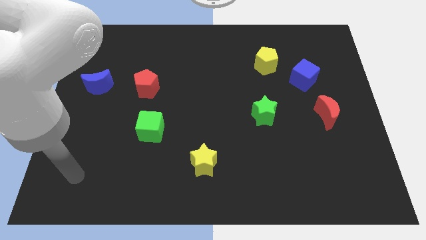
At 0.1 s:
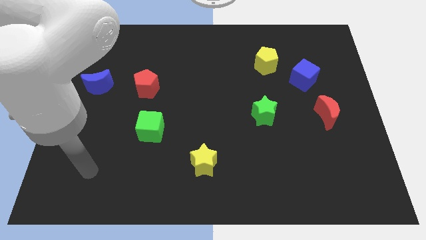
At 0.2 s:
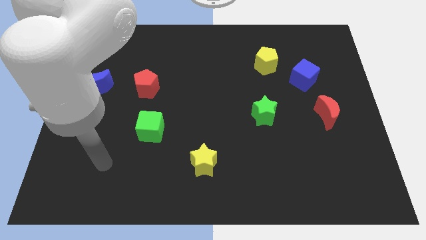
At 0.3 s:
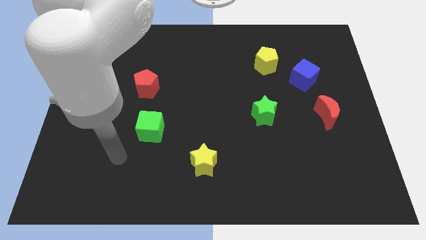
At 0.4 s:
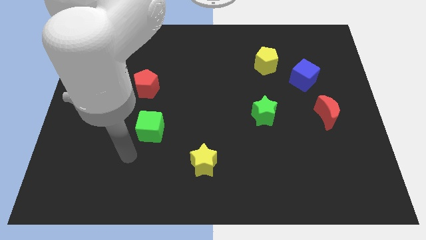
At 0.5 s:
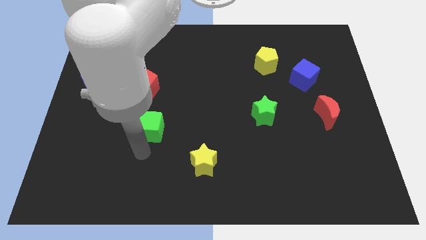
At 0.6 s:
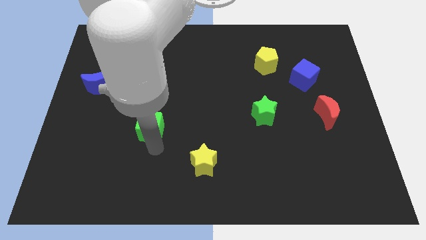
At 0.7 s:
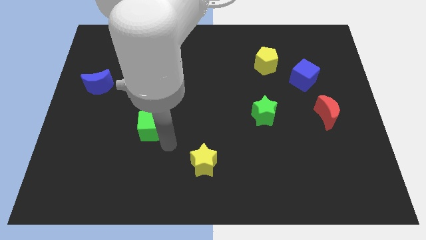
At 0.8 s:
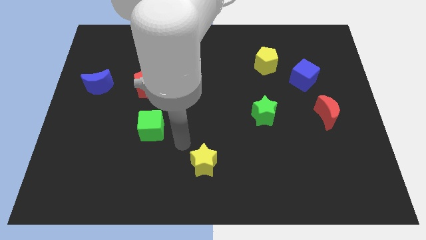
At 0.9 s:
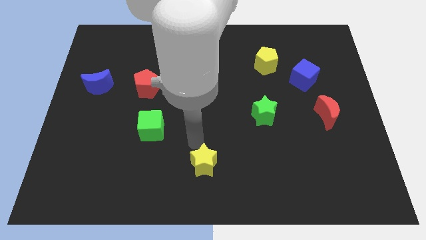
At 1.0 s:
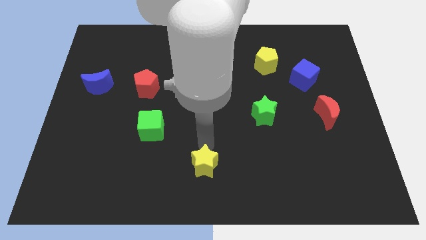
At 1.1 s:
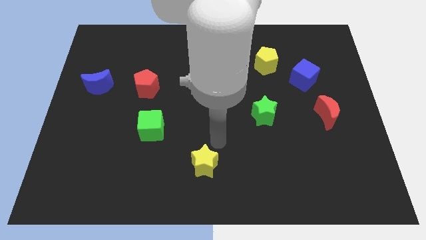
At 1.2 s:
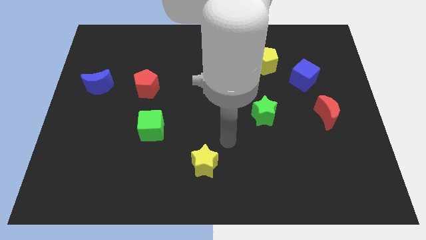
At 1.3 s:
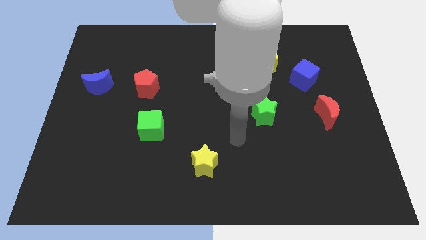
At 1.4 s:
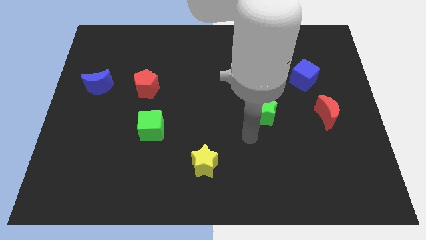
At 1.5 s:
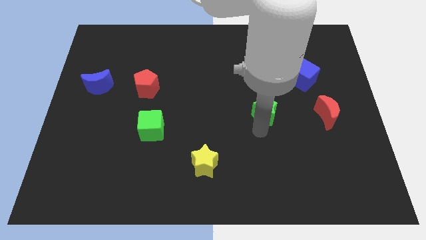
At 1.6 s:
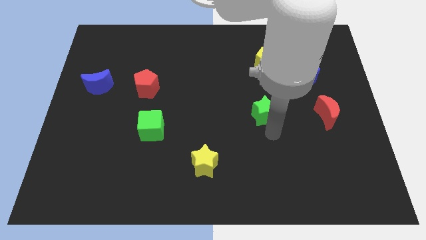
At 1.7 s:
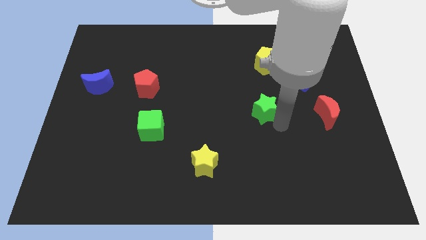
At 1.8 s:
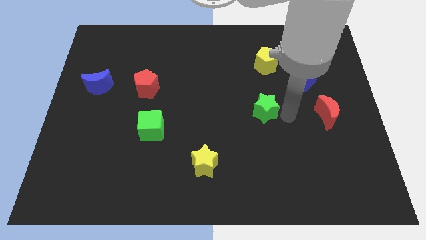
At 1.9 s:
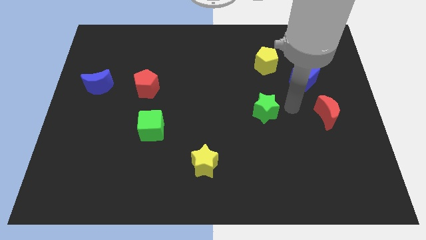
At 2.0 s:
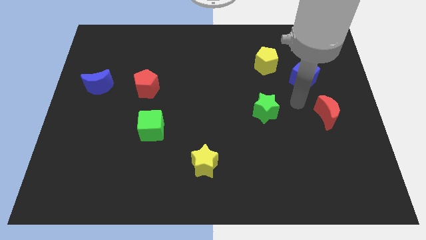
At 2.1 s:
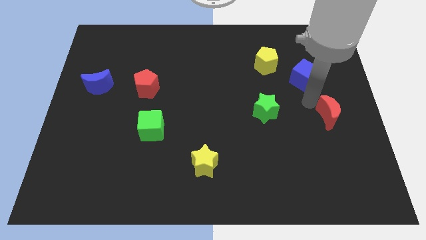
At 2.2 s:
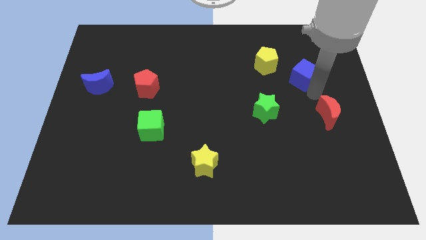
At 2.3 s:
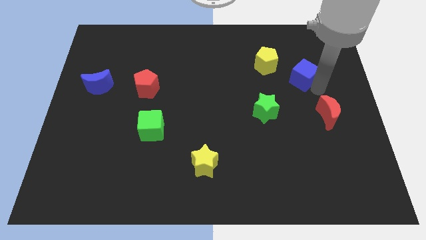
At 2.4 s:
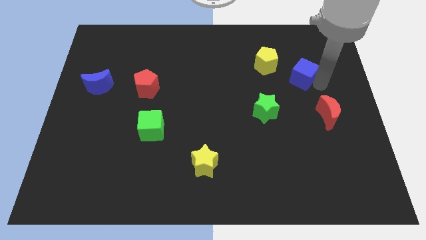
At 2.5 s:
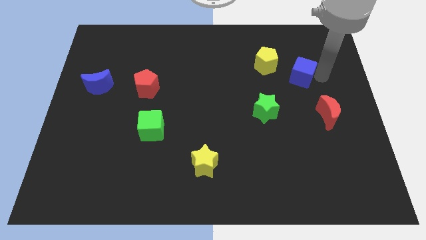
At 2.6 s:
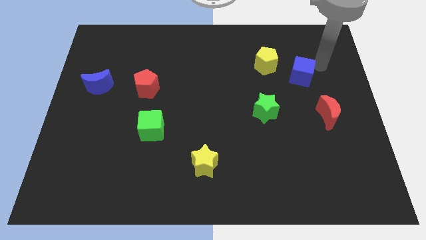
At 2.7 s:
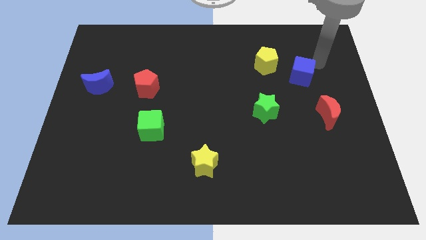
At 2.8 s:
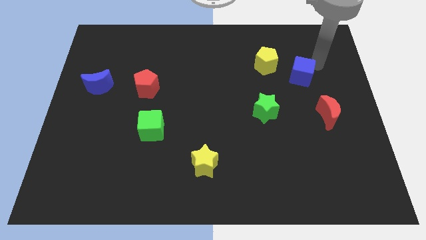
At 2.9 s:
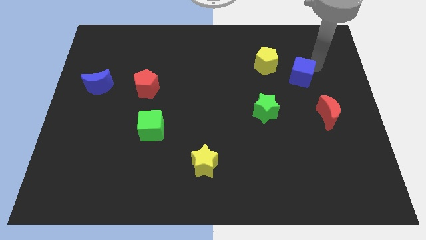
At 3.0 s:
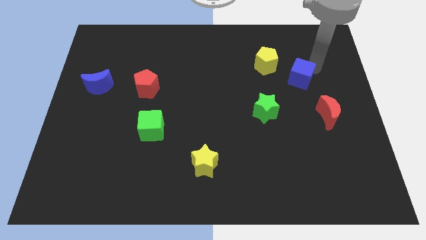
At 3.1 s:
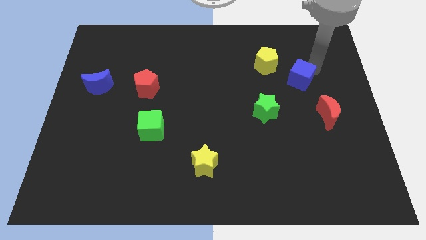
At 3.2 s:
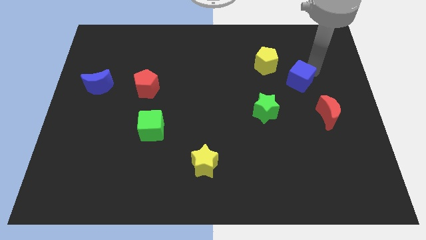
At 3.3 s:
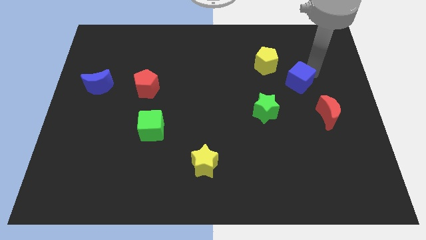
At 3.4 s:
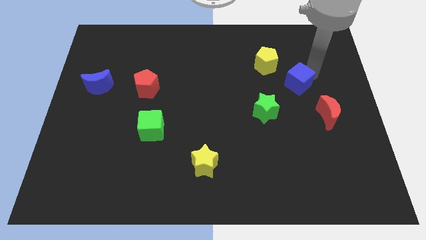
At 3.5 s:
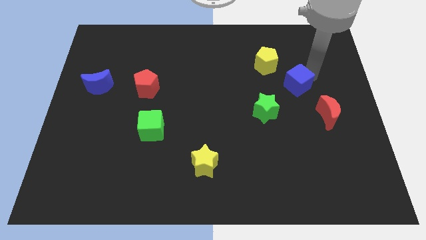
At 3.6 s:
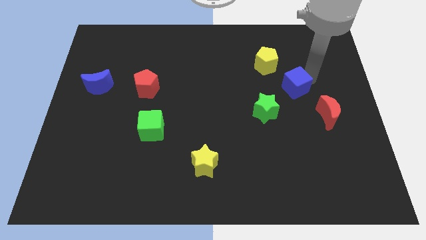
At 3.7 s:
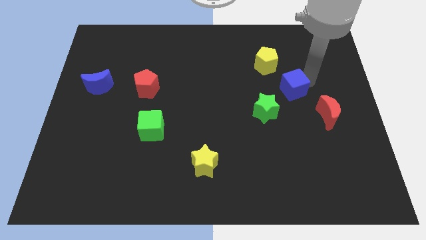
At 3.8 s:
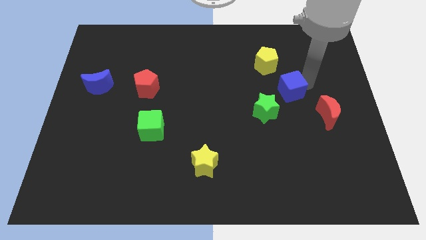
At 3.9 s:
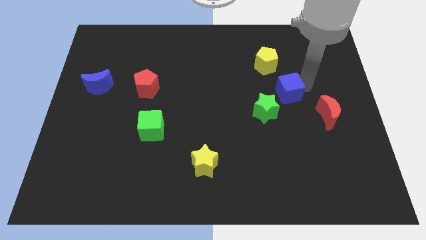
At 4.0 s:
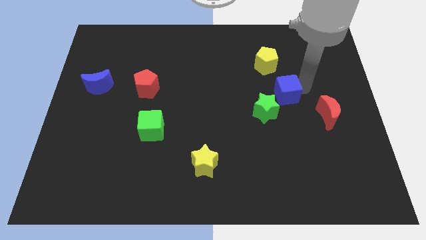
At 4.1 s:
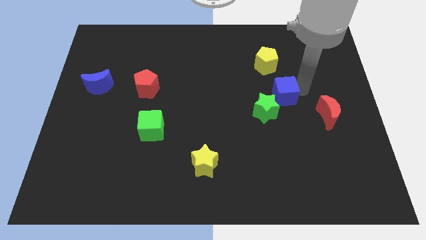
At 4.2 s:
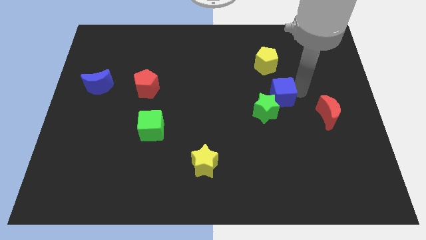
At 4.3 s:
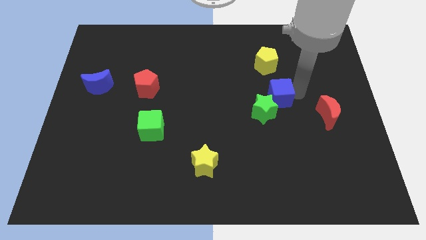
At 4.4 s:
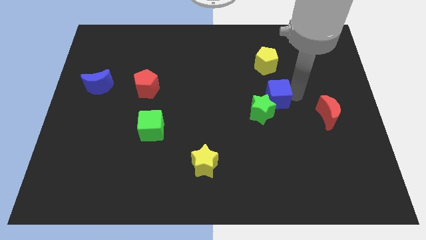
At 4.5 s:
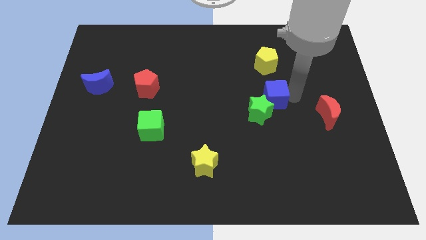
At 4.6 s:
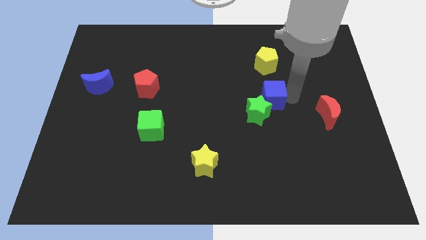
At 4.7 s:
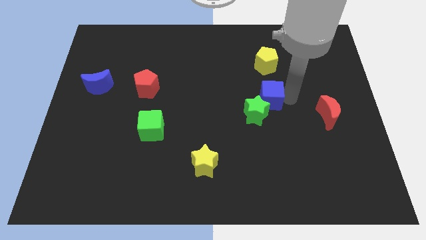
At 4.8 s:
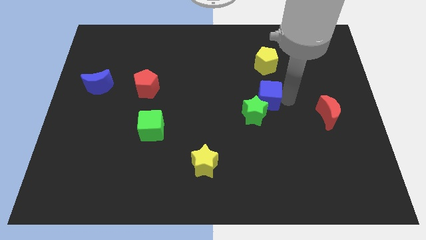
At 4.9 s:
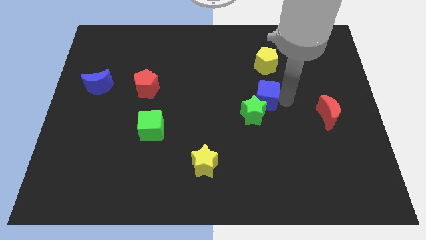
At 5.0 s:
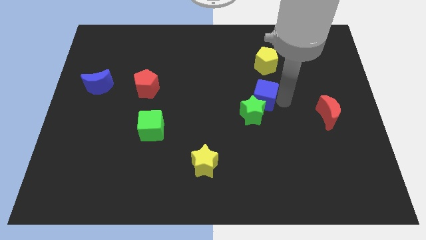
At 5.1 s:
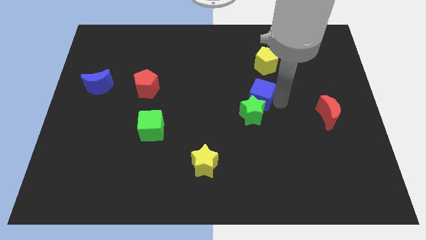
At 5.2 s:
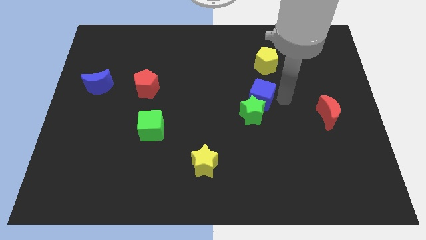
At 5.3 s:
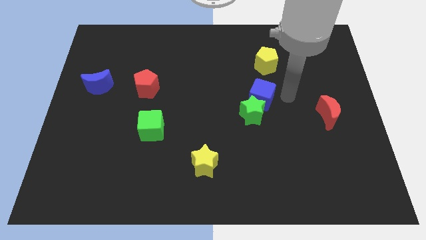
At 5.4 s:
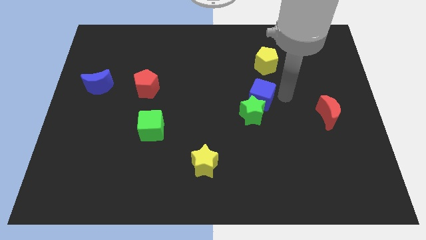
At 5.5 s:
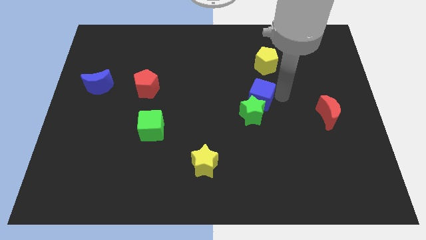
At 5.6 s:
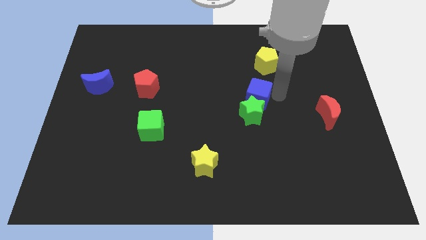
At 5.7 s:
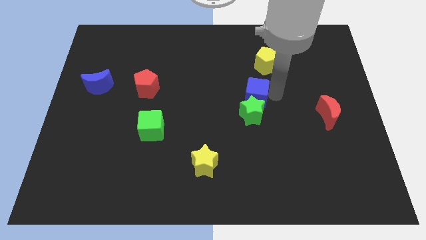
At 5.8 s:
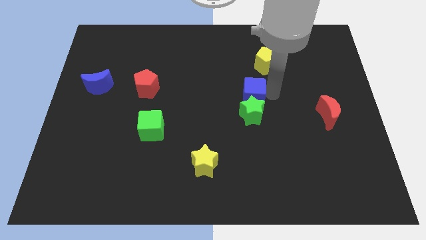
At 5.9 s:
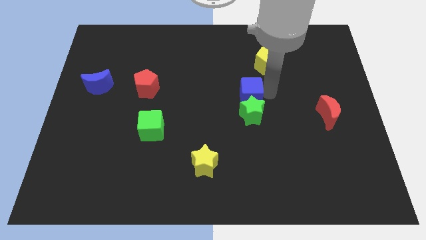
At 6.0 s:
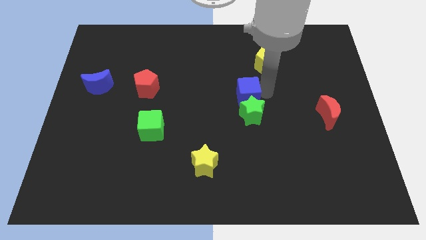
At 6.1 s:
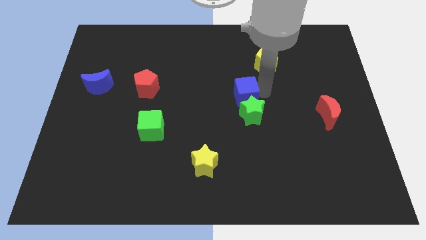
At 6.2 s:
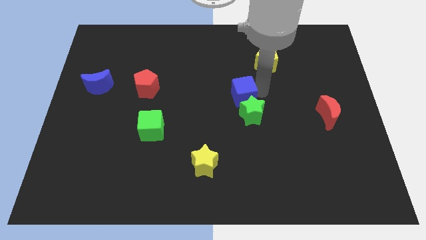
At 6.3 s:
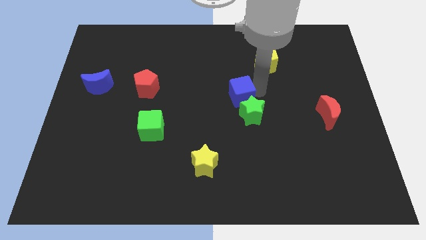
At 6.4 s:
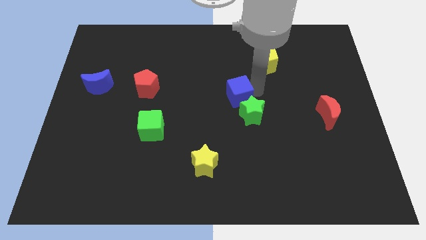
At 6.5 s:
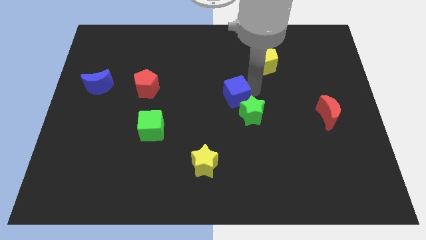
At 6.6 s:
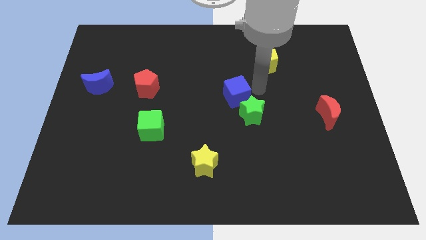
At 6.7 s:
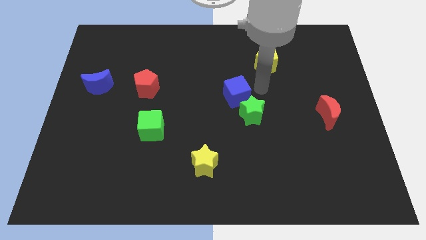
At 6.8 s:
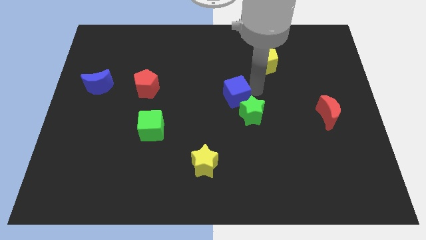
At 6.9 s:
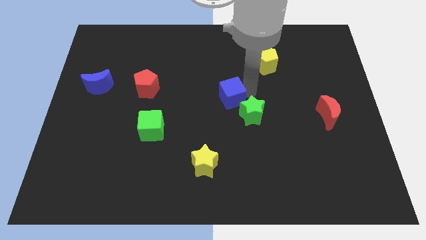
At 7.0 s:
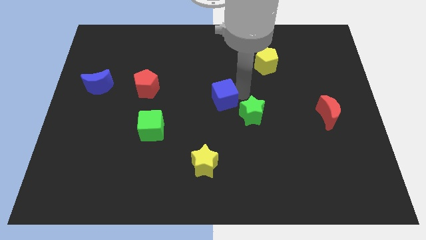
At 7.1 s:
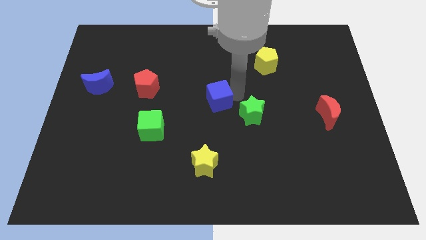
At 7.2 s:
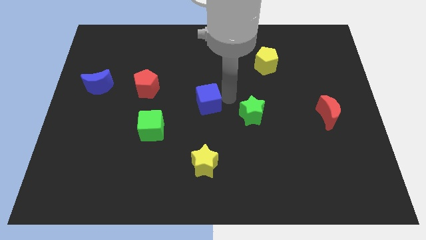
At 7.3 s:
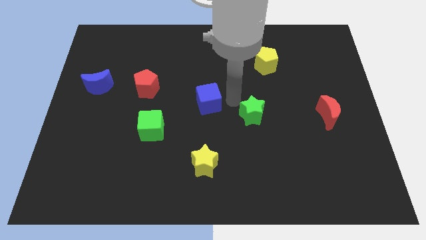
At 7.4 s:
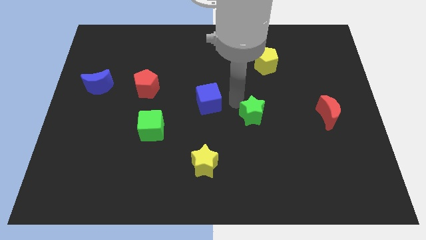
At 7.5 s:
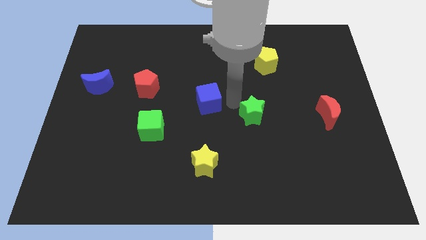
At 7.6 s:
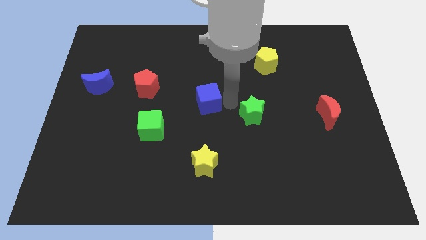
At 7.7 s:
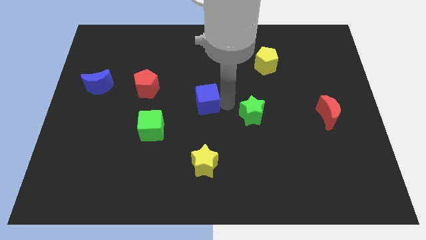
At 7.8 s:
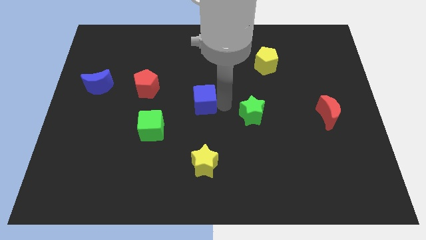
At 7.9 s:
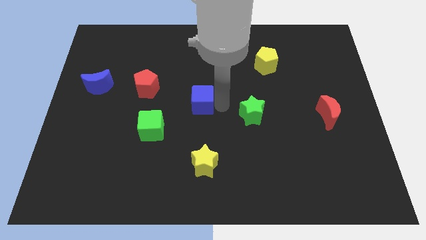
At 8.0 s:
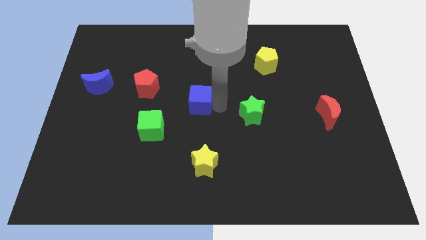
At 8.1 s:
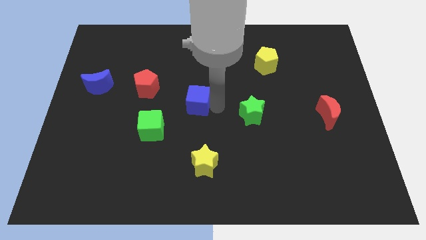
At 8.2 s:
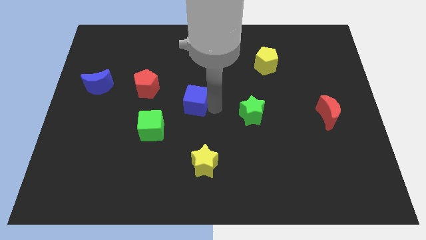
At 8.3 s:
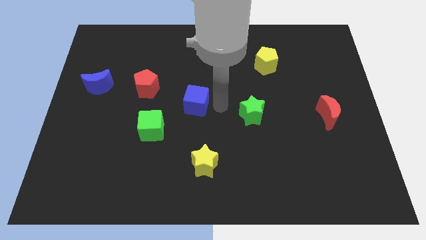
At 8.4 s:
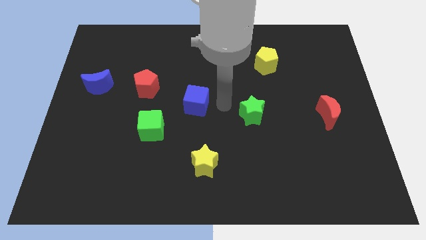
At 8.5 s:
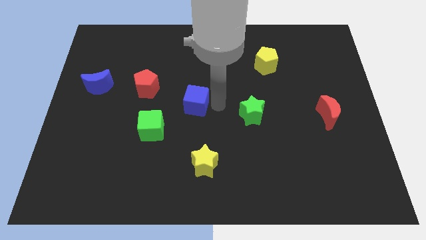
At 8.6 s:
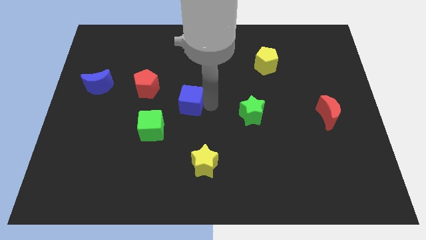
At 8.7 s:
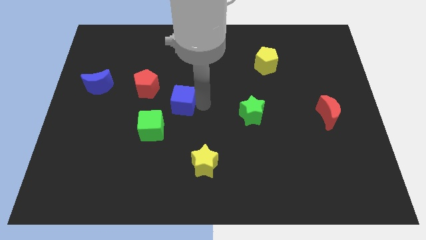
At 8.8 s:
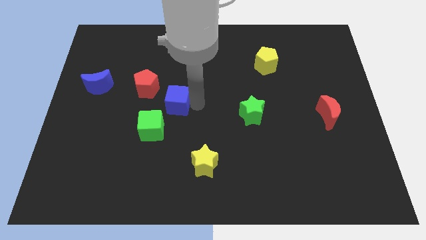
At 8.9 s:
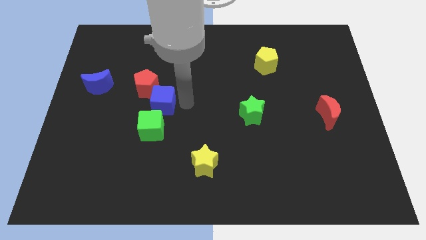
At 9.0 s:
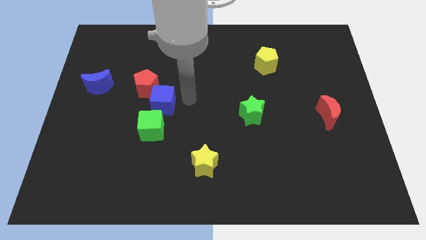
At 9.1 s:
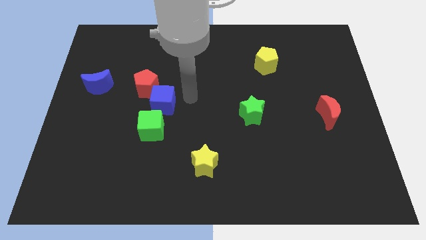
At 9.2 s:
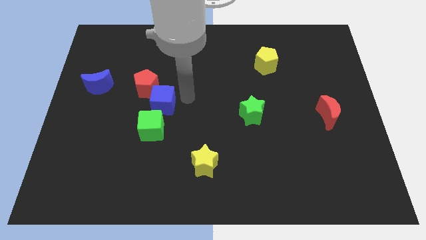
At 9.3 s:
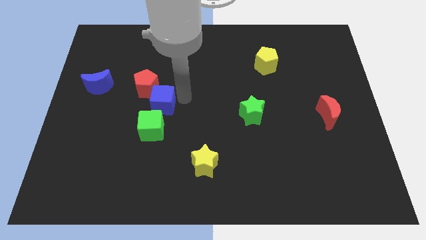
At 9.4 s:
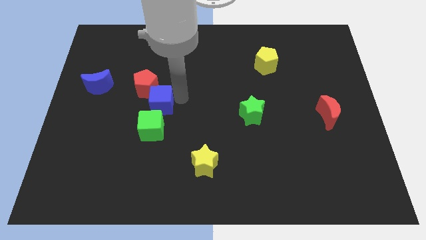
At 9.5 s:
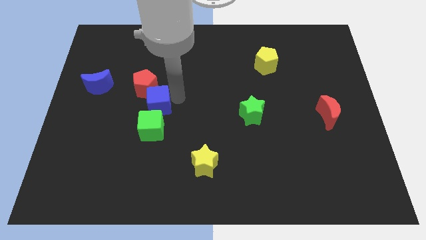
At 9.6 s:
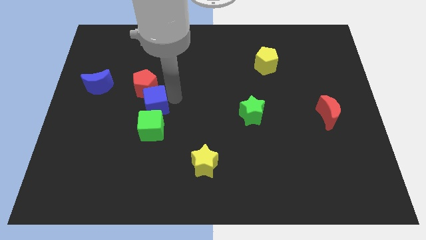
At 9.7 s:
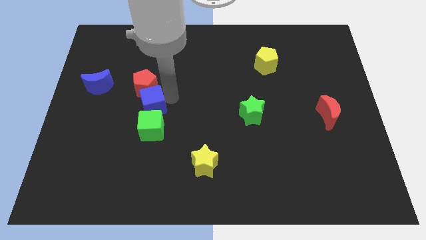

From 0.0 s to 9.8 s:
slide the blue cube diagonally up and to the left of the green cube
